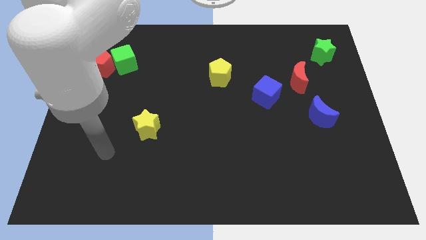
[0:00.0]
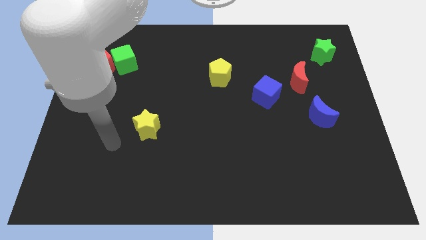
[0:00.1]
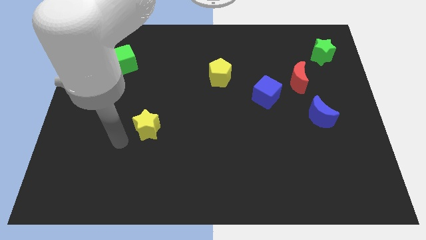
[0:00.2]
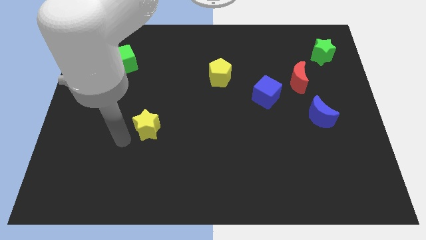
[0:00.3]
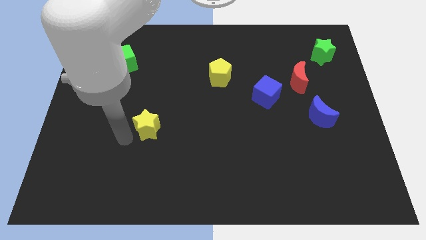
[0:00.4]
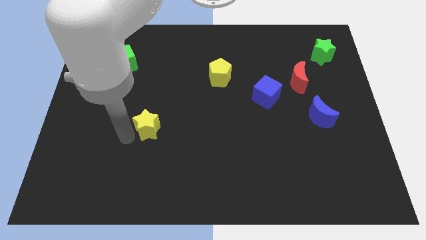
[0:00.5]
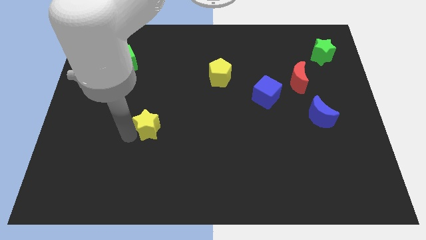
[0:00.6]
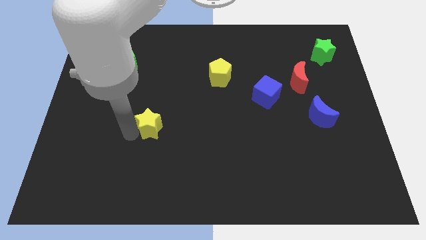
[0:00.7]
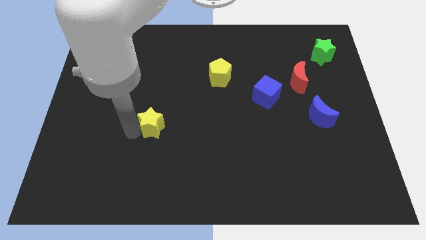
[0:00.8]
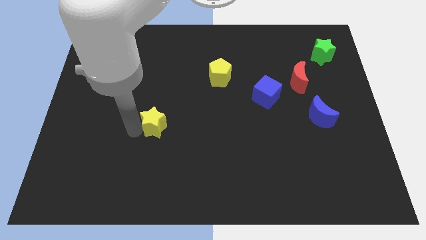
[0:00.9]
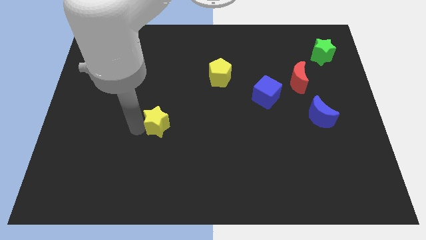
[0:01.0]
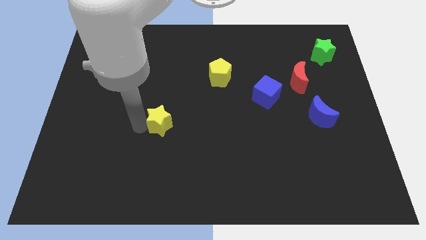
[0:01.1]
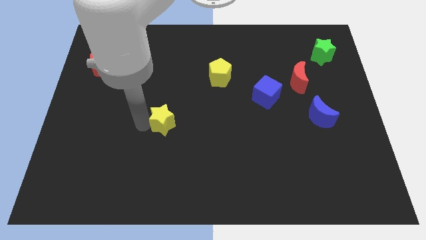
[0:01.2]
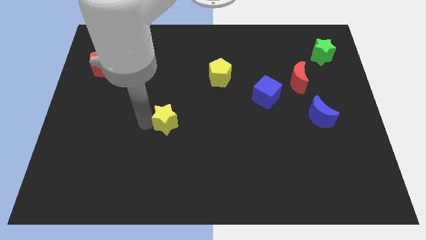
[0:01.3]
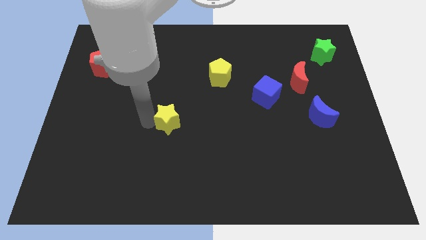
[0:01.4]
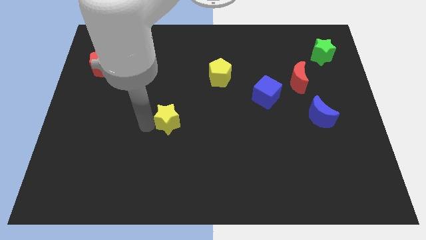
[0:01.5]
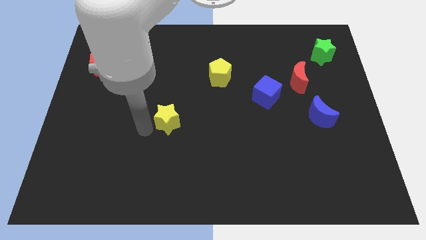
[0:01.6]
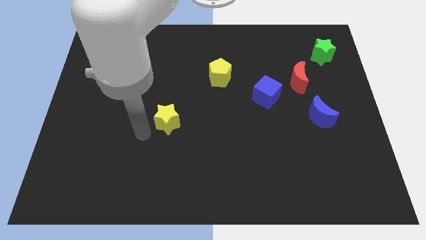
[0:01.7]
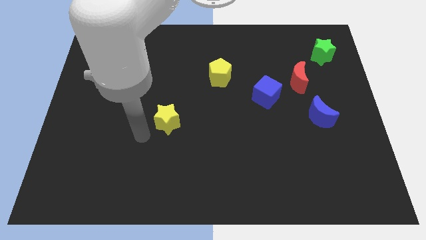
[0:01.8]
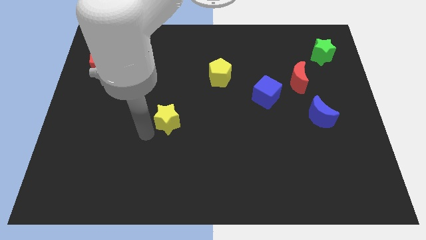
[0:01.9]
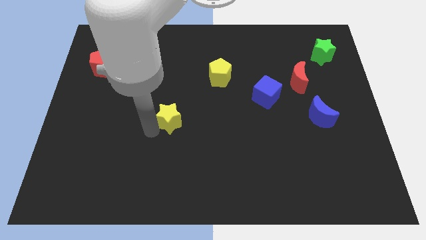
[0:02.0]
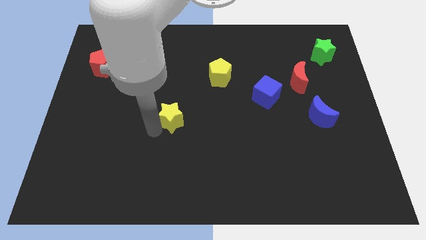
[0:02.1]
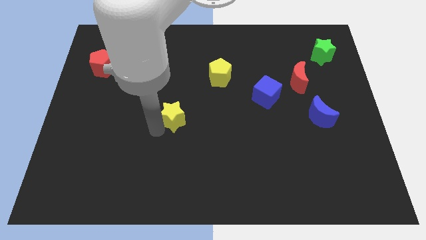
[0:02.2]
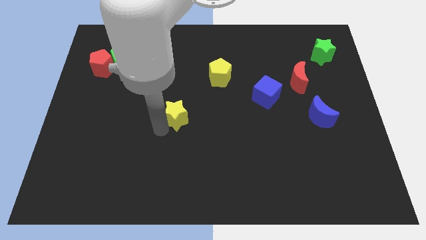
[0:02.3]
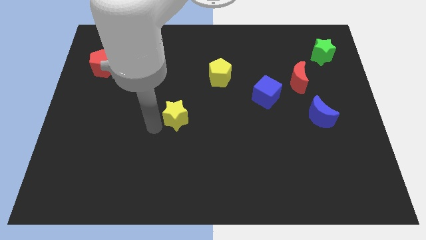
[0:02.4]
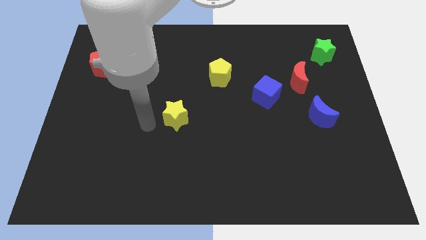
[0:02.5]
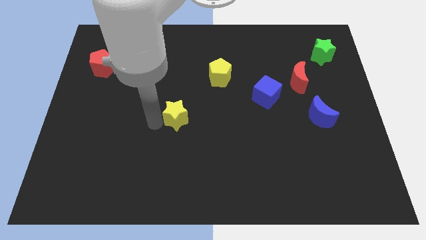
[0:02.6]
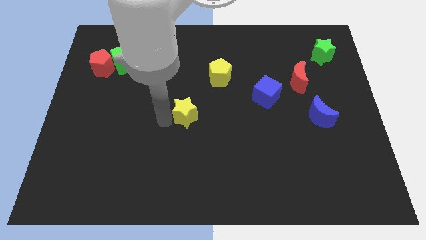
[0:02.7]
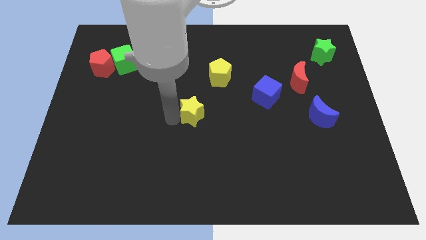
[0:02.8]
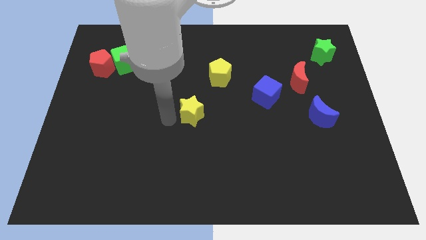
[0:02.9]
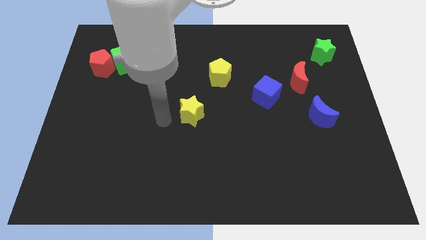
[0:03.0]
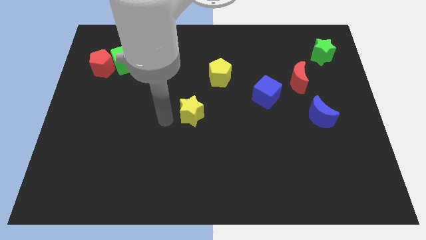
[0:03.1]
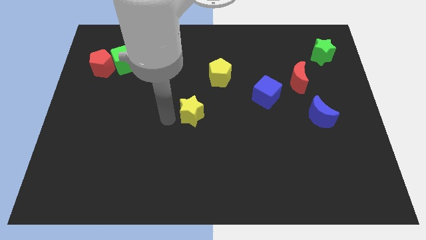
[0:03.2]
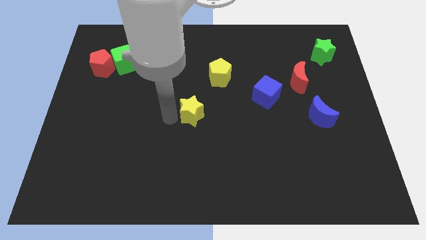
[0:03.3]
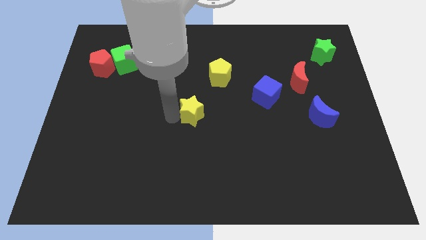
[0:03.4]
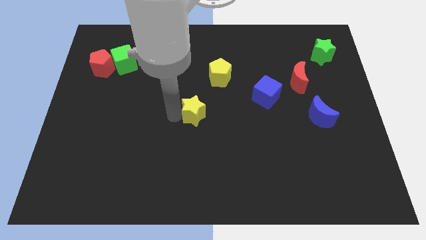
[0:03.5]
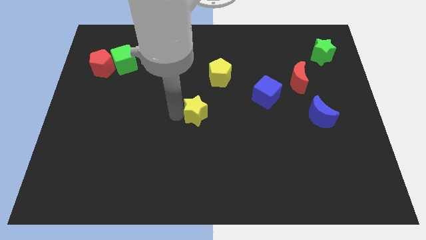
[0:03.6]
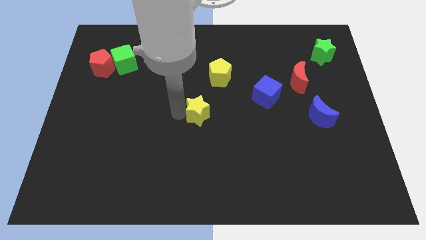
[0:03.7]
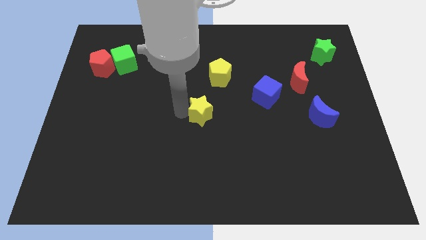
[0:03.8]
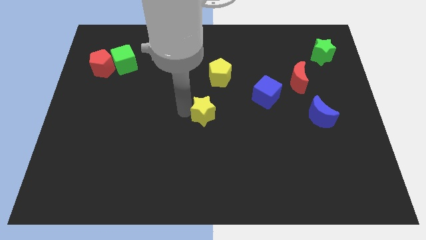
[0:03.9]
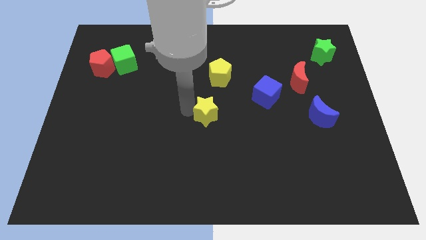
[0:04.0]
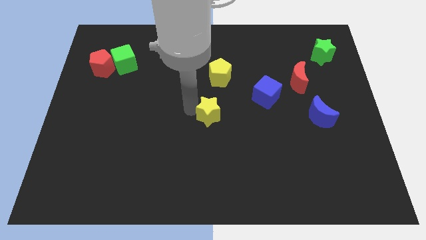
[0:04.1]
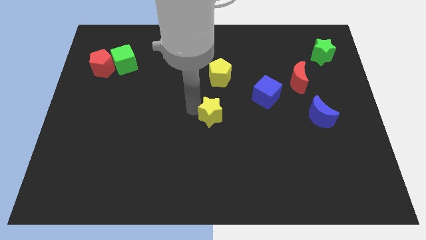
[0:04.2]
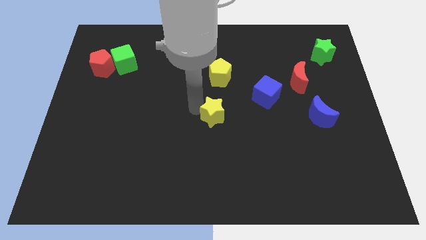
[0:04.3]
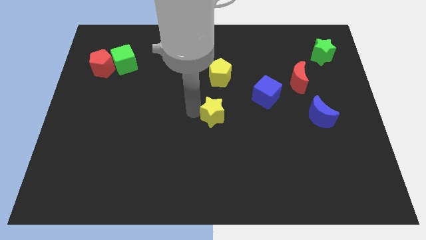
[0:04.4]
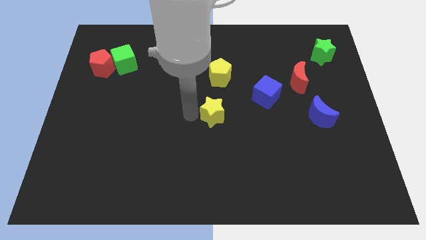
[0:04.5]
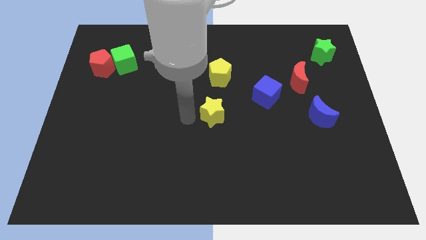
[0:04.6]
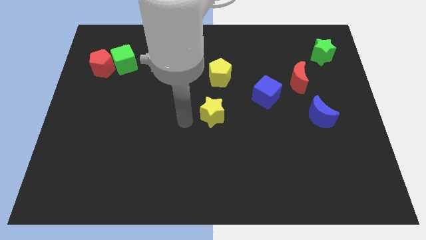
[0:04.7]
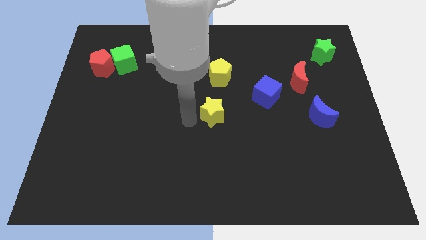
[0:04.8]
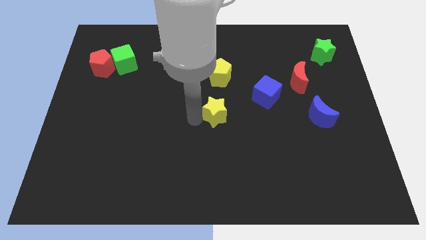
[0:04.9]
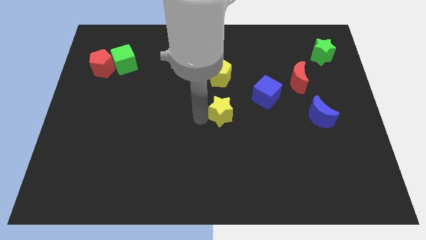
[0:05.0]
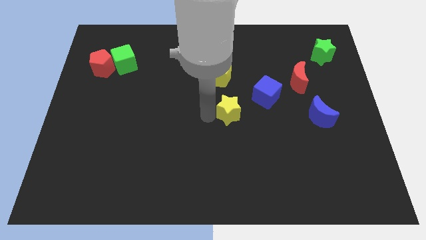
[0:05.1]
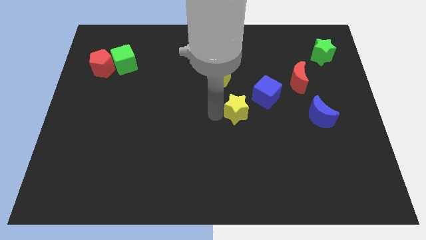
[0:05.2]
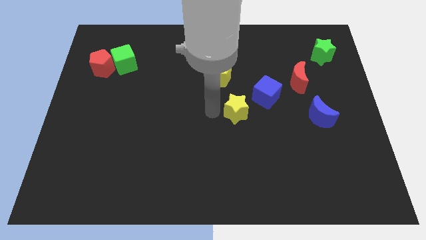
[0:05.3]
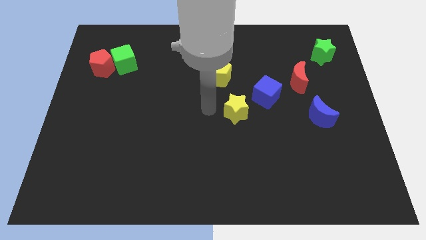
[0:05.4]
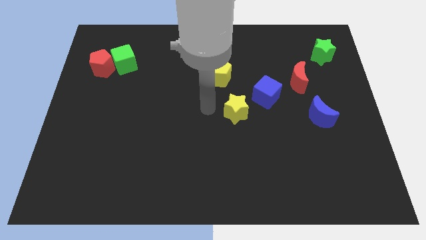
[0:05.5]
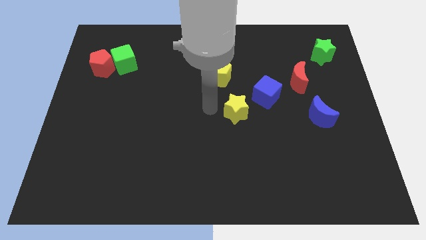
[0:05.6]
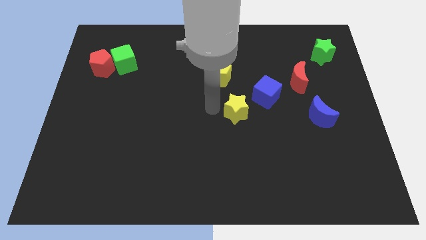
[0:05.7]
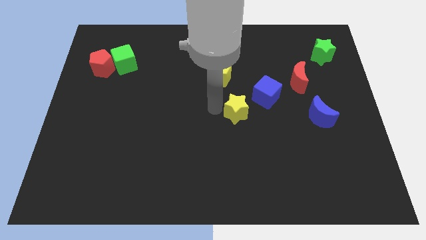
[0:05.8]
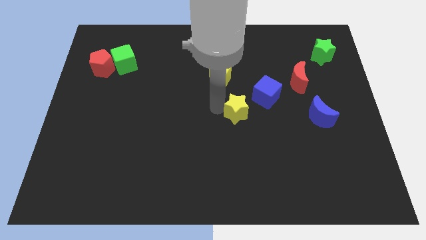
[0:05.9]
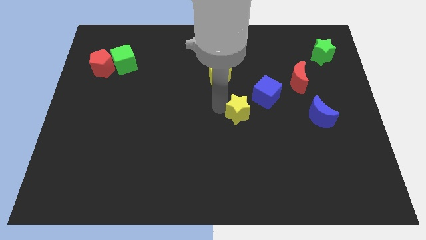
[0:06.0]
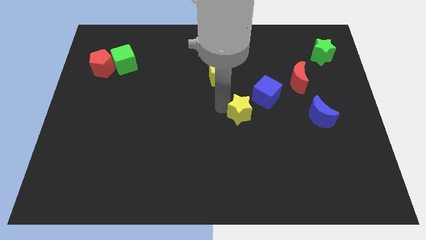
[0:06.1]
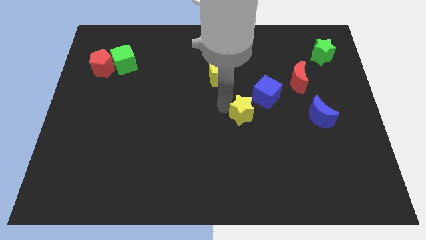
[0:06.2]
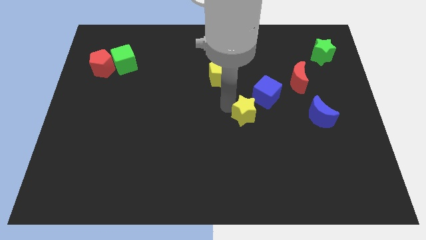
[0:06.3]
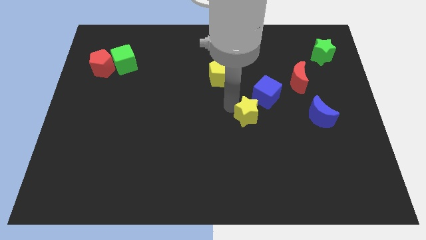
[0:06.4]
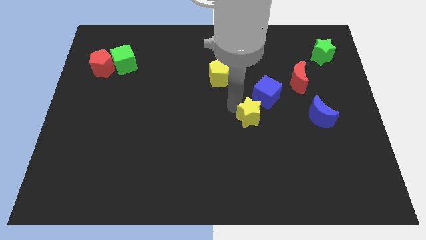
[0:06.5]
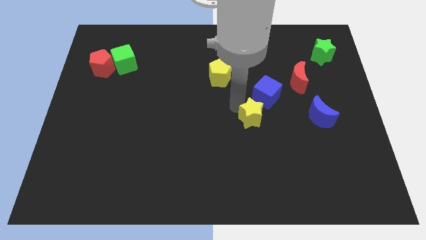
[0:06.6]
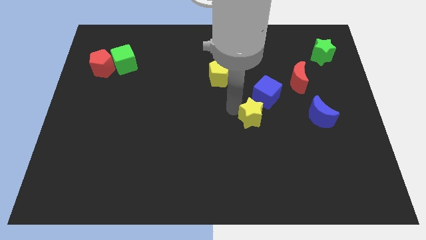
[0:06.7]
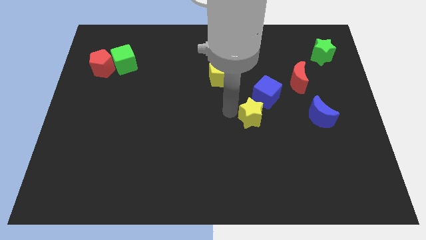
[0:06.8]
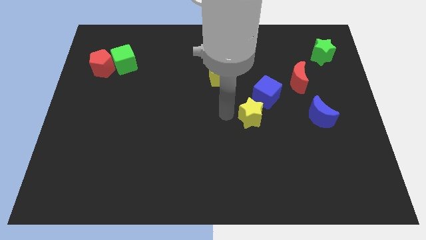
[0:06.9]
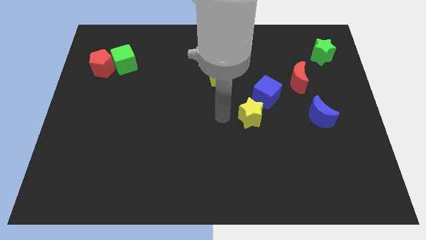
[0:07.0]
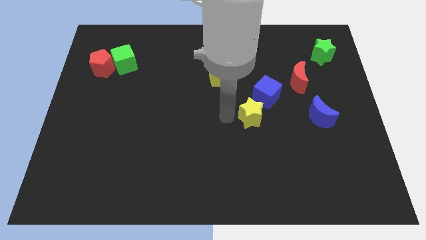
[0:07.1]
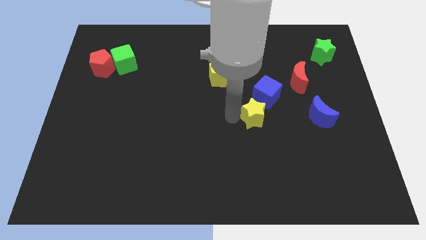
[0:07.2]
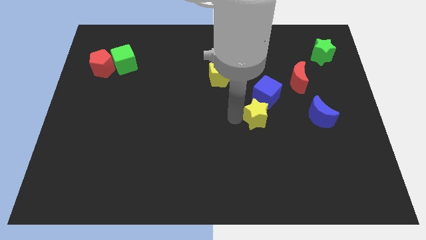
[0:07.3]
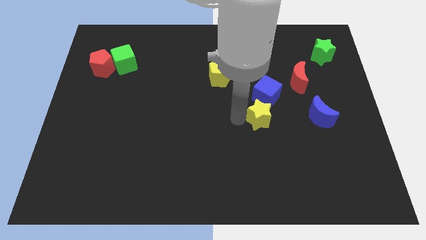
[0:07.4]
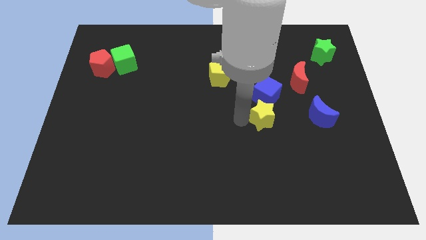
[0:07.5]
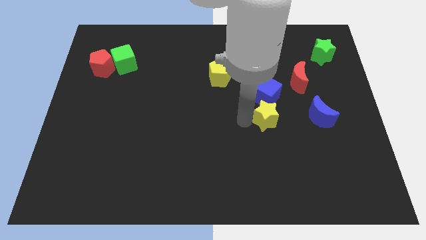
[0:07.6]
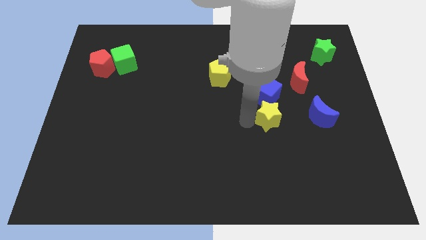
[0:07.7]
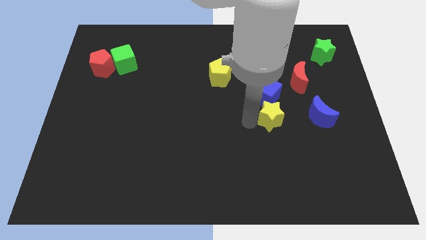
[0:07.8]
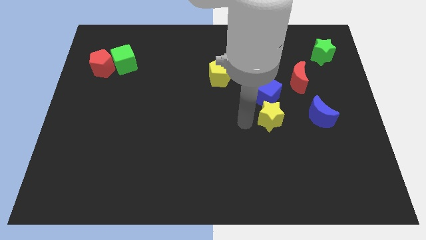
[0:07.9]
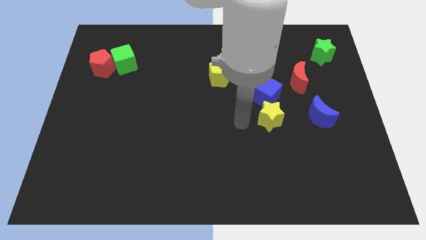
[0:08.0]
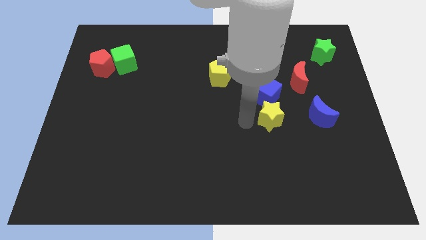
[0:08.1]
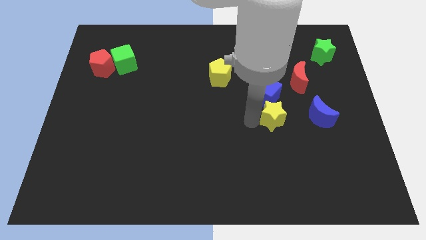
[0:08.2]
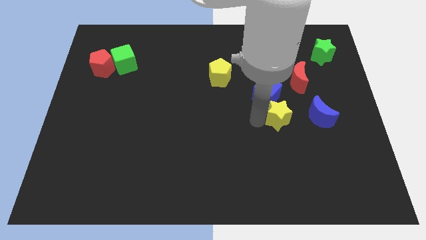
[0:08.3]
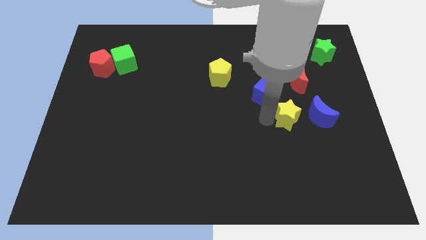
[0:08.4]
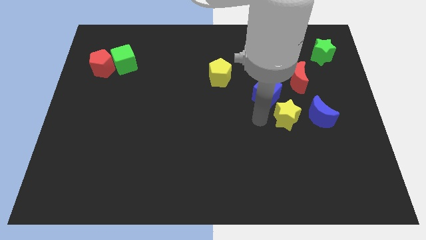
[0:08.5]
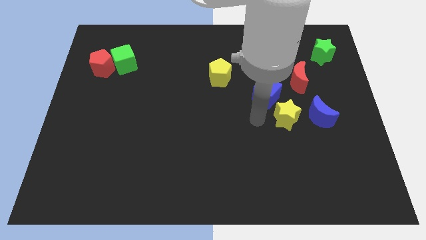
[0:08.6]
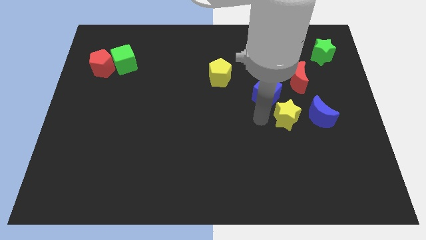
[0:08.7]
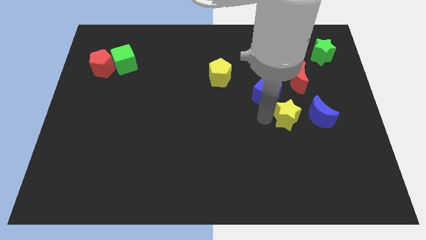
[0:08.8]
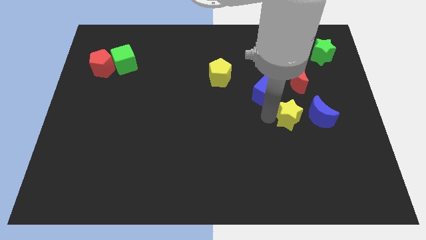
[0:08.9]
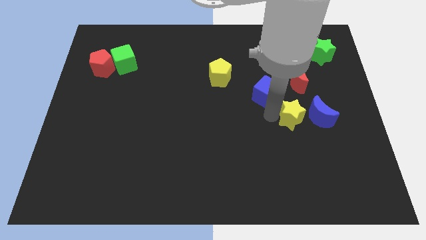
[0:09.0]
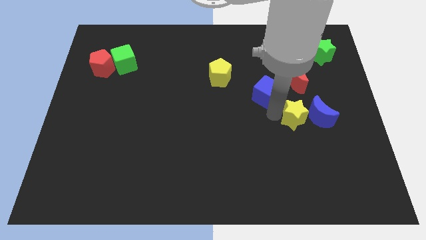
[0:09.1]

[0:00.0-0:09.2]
put the yellow star to the blue moon
